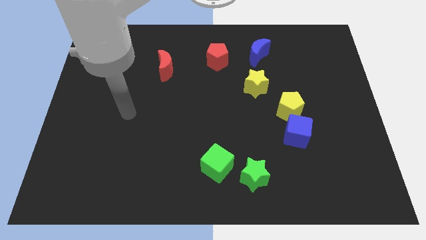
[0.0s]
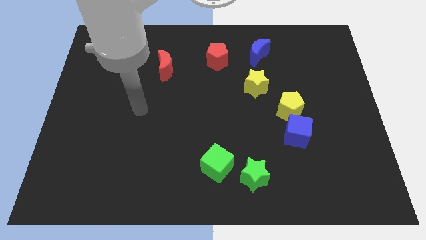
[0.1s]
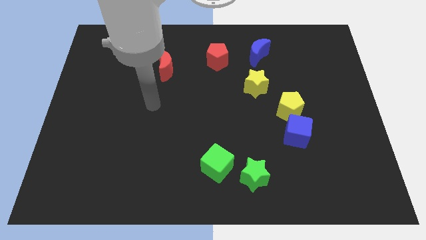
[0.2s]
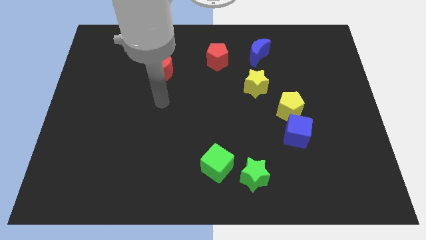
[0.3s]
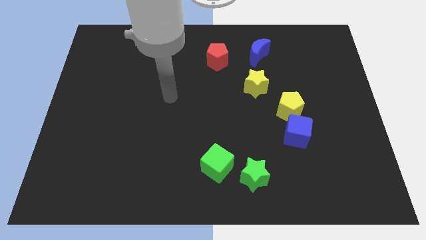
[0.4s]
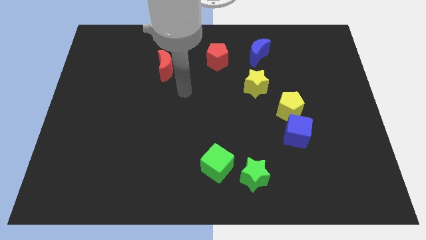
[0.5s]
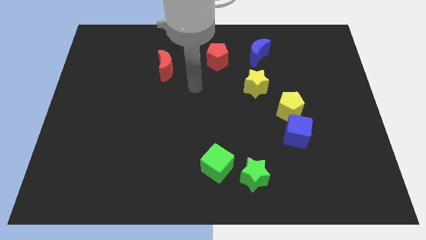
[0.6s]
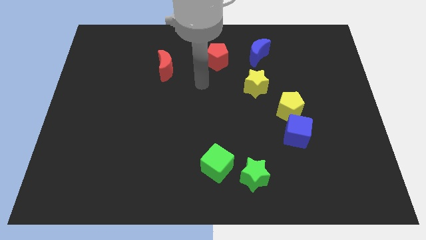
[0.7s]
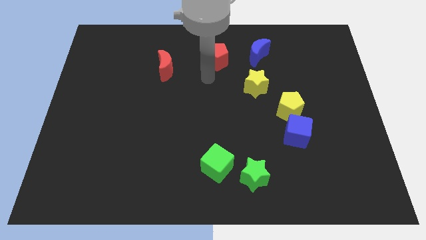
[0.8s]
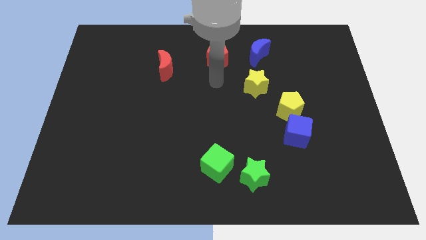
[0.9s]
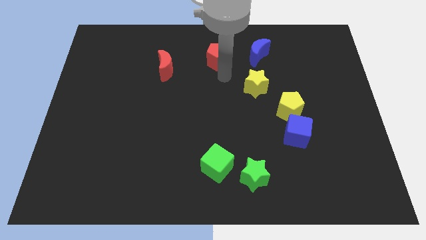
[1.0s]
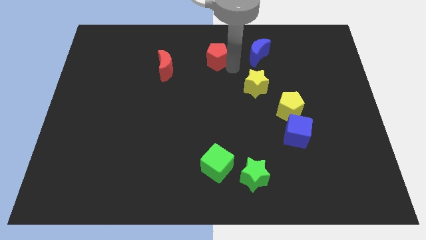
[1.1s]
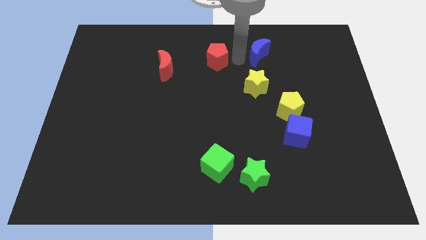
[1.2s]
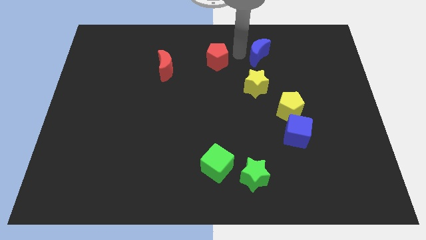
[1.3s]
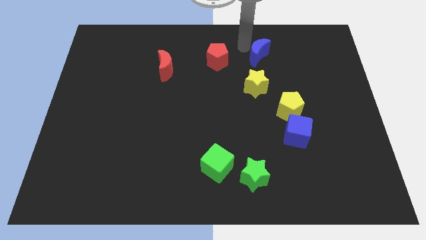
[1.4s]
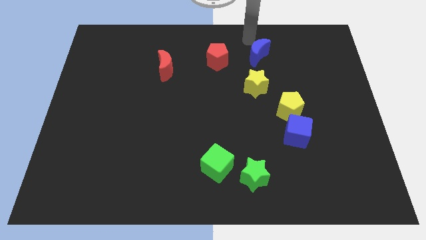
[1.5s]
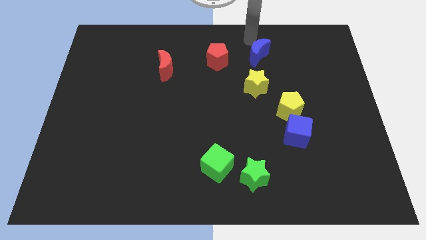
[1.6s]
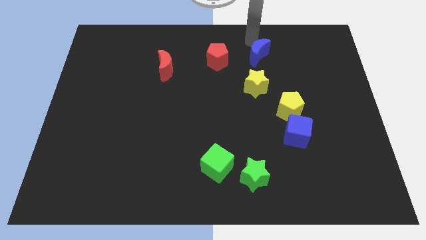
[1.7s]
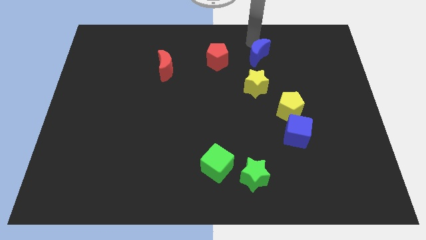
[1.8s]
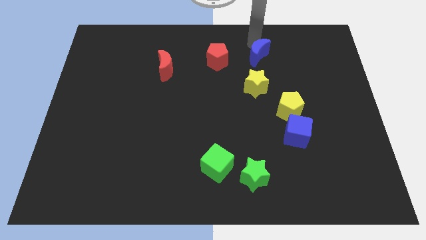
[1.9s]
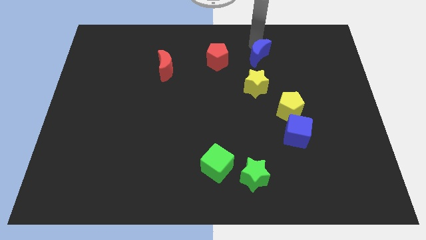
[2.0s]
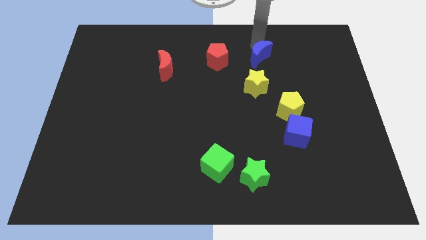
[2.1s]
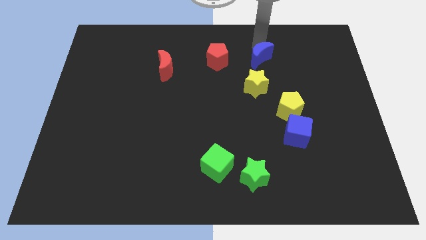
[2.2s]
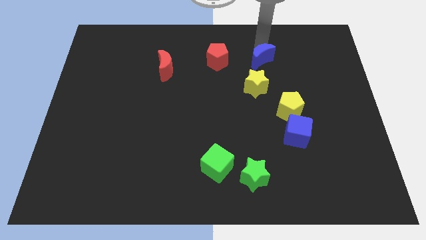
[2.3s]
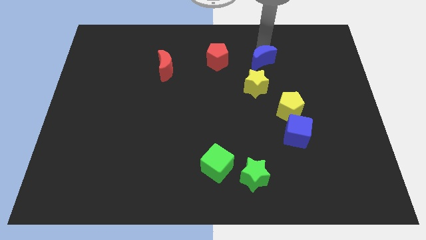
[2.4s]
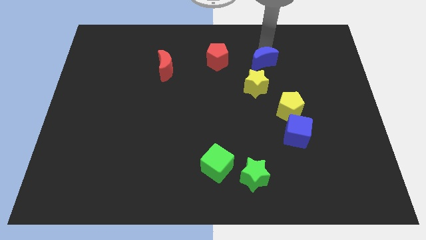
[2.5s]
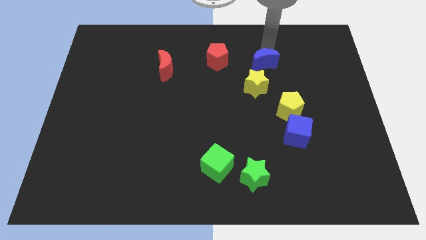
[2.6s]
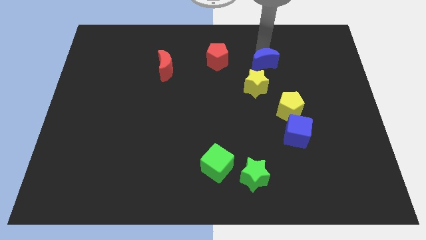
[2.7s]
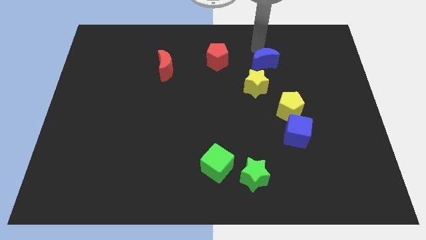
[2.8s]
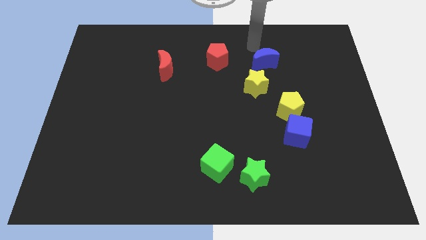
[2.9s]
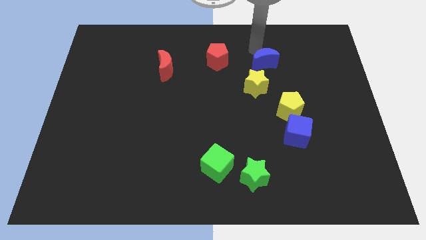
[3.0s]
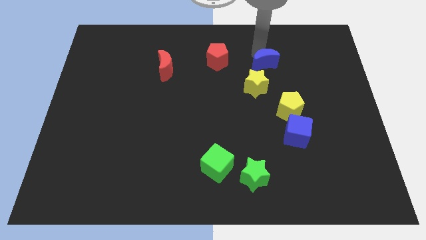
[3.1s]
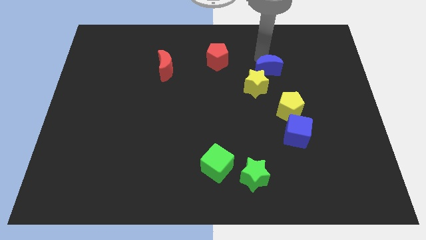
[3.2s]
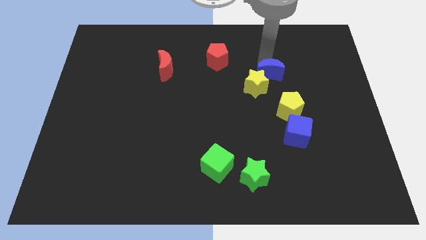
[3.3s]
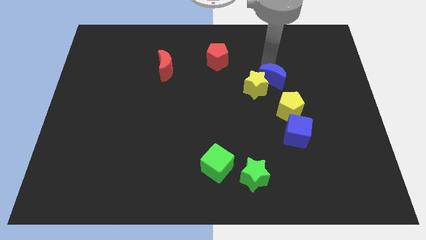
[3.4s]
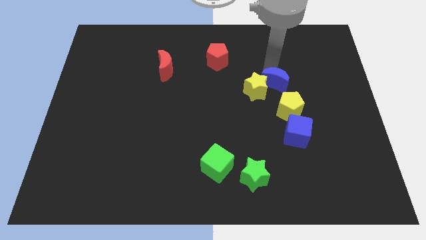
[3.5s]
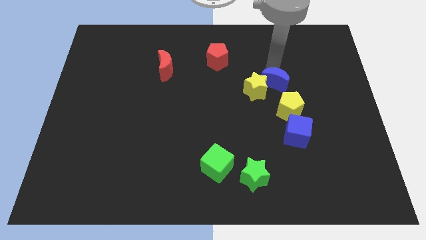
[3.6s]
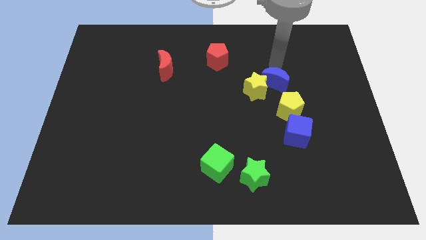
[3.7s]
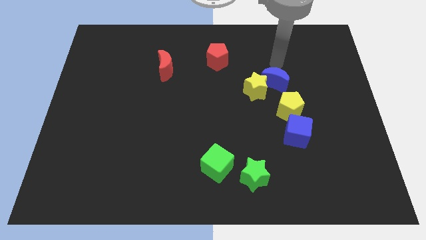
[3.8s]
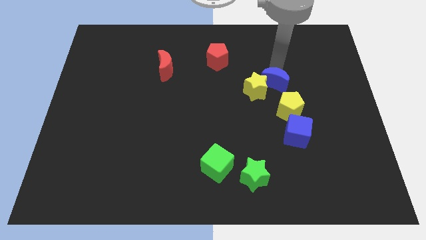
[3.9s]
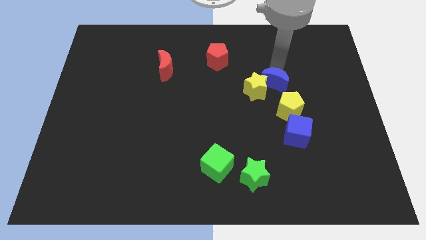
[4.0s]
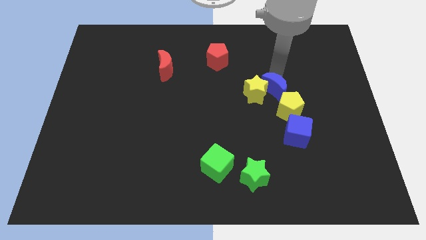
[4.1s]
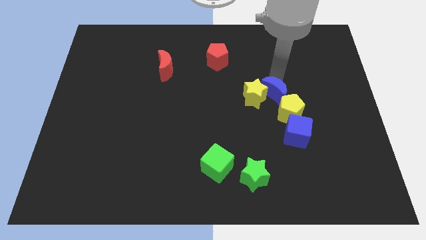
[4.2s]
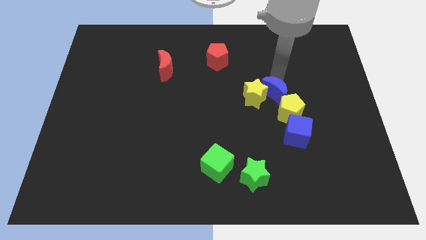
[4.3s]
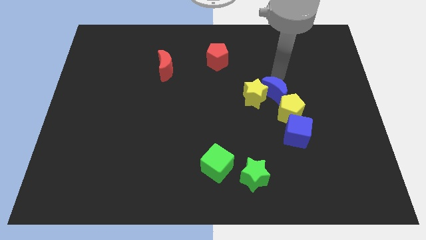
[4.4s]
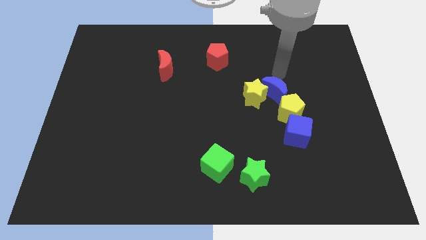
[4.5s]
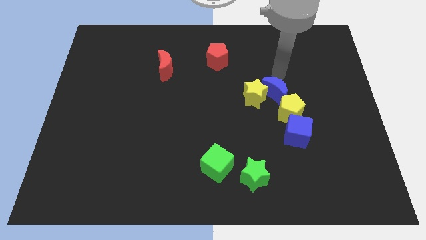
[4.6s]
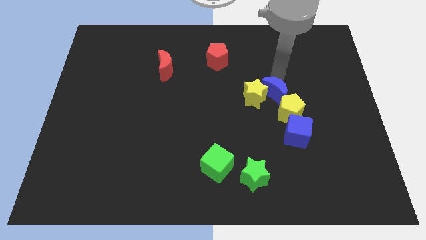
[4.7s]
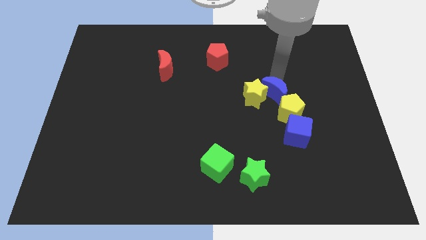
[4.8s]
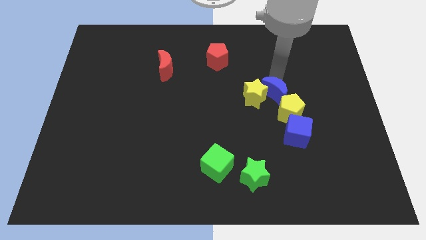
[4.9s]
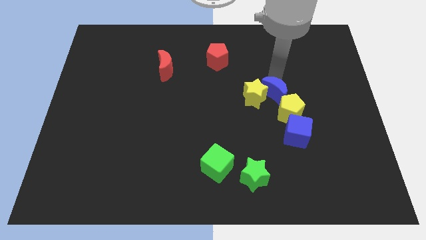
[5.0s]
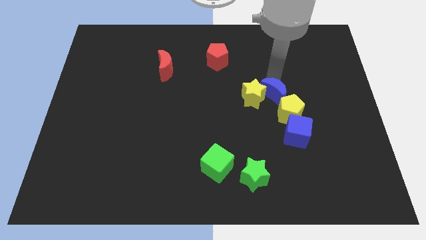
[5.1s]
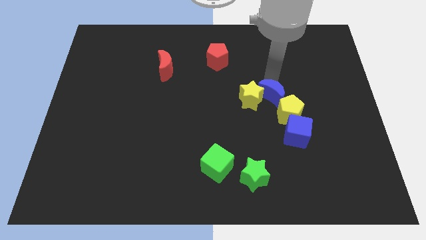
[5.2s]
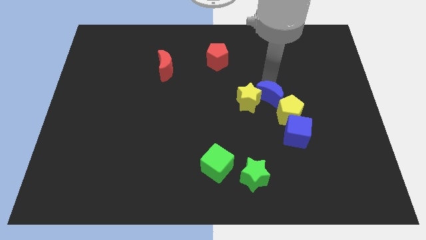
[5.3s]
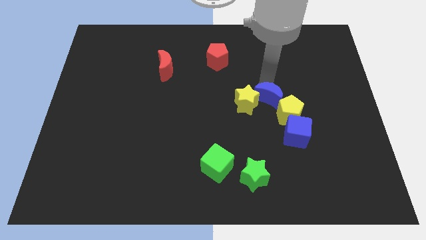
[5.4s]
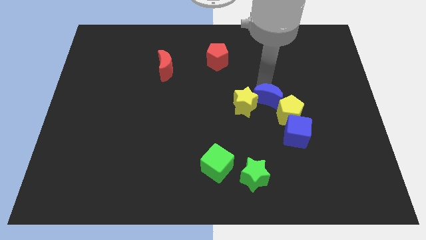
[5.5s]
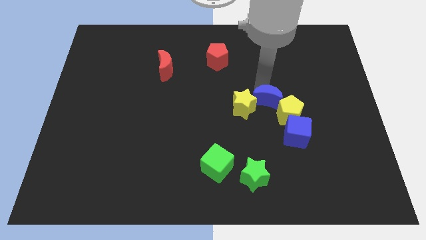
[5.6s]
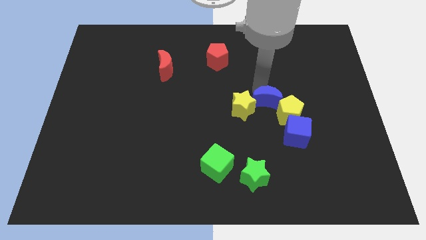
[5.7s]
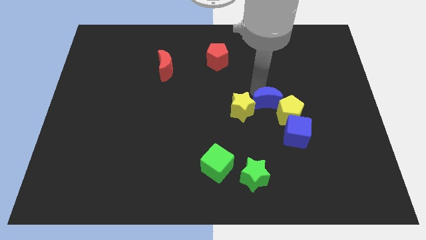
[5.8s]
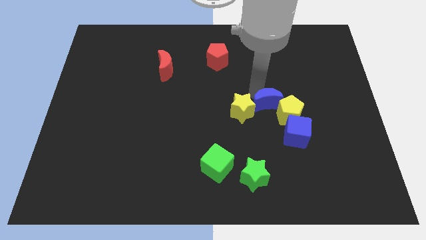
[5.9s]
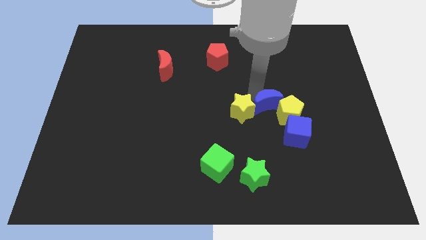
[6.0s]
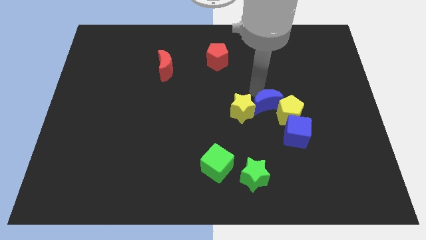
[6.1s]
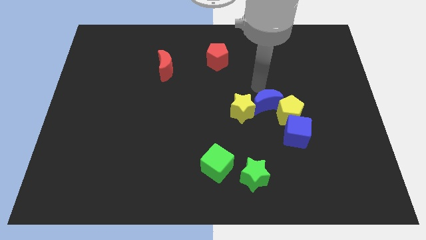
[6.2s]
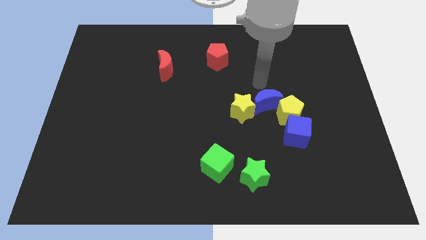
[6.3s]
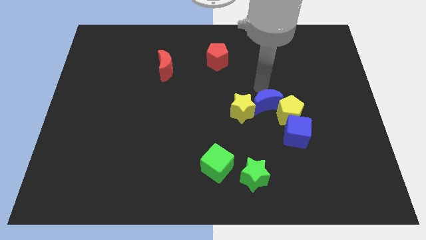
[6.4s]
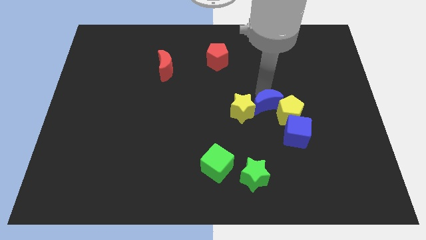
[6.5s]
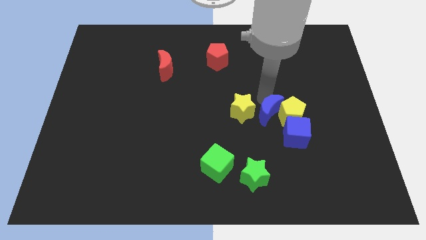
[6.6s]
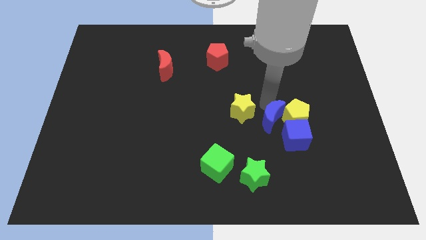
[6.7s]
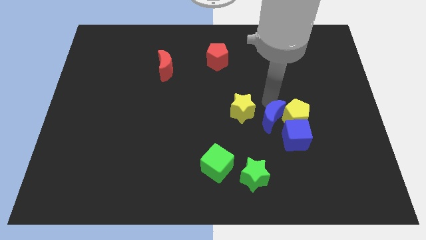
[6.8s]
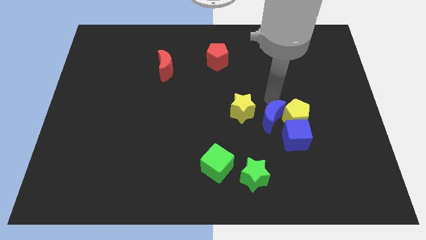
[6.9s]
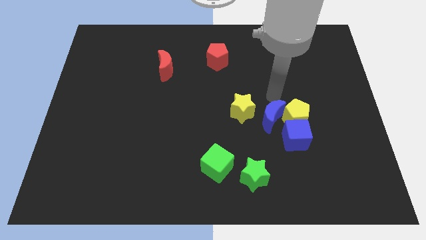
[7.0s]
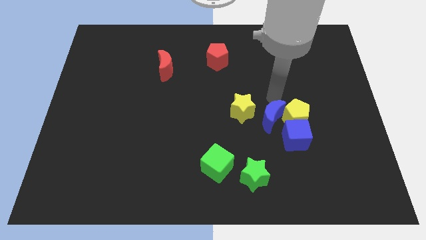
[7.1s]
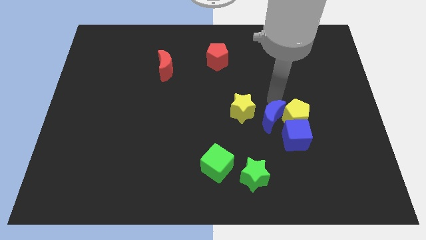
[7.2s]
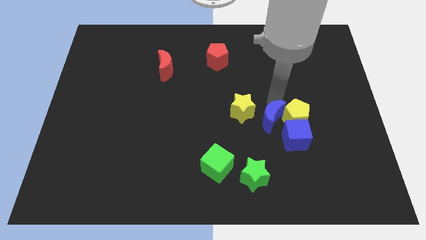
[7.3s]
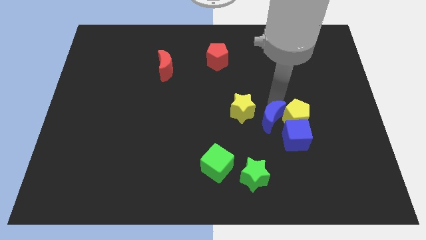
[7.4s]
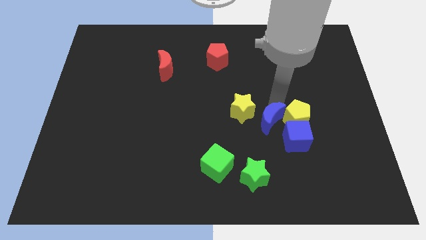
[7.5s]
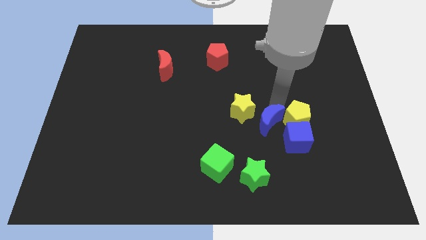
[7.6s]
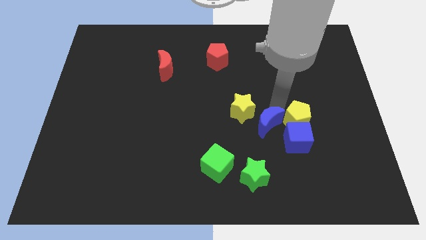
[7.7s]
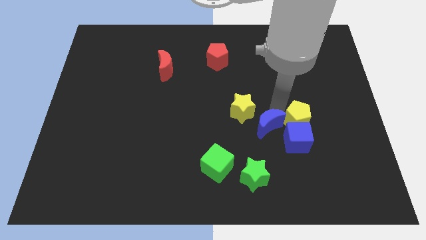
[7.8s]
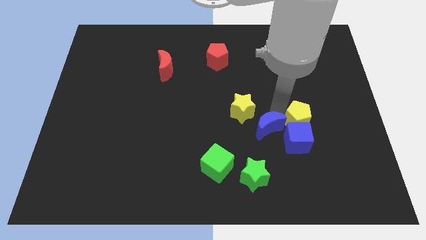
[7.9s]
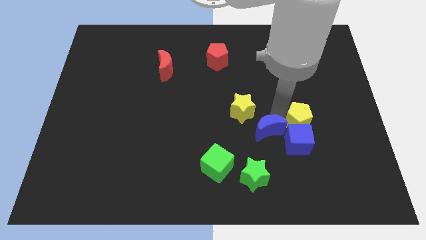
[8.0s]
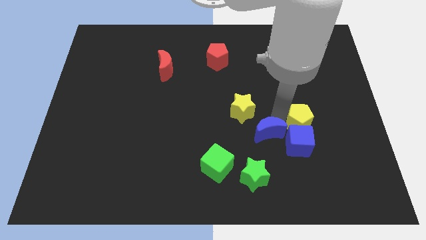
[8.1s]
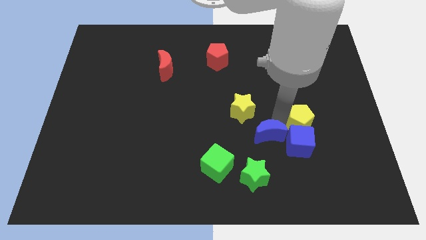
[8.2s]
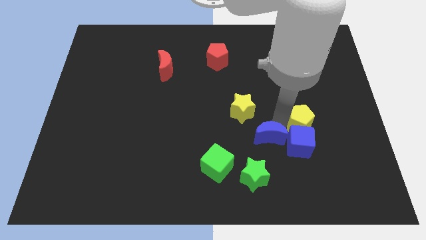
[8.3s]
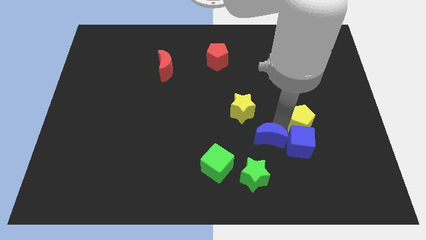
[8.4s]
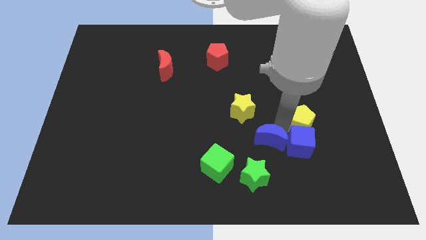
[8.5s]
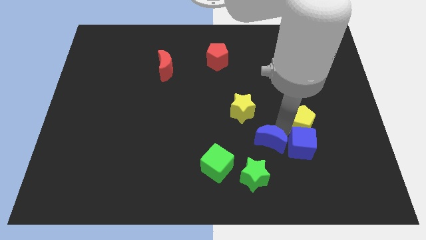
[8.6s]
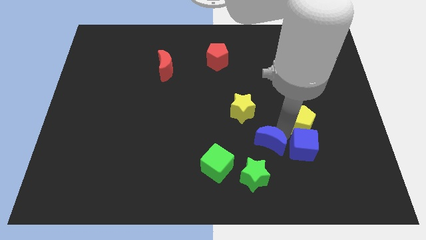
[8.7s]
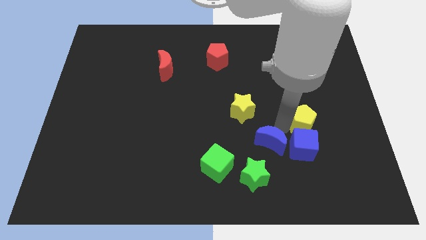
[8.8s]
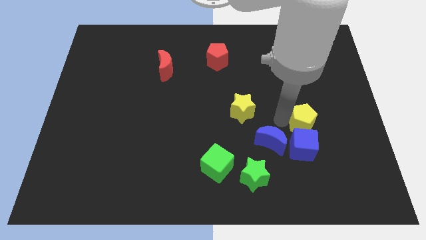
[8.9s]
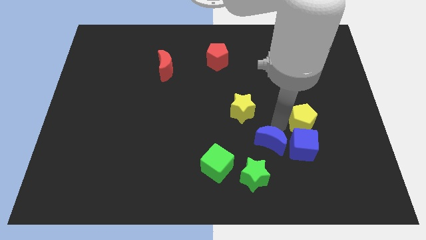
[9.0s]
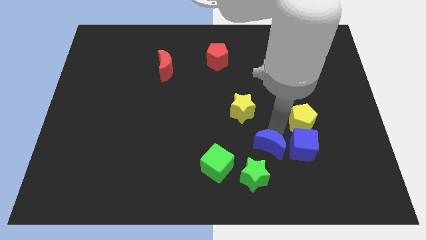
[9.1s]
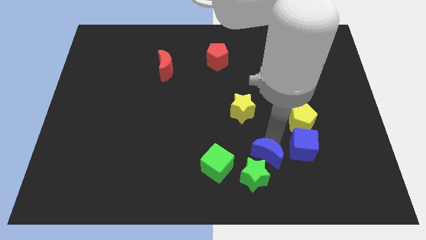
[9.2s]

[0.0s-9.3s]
push the blue moon towards the green star
